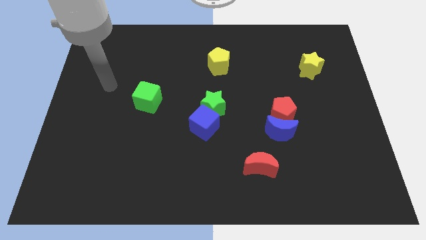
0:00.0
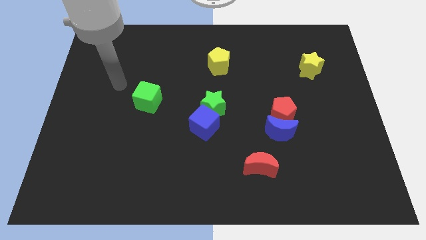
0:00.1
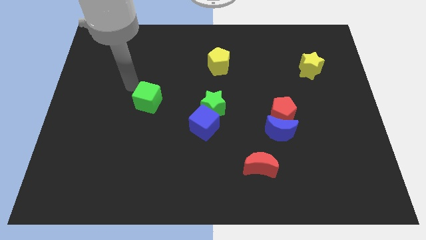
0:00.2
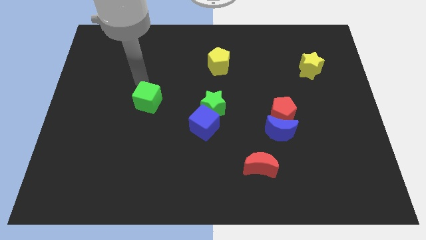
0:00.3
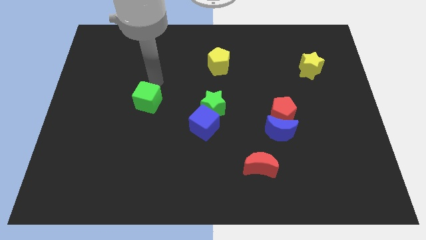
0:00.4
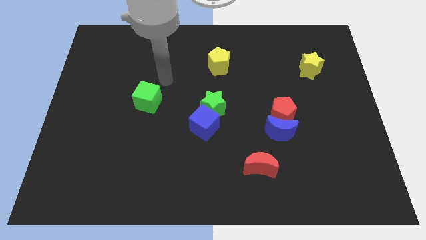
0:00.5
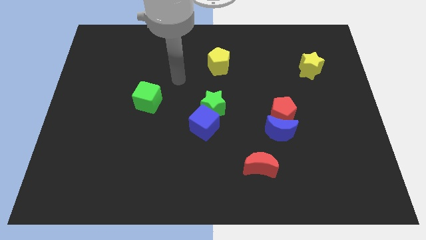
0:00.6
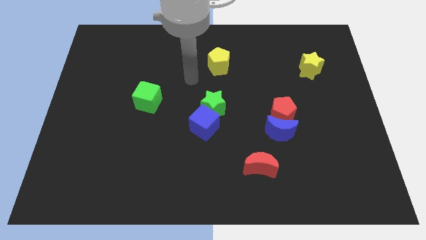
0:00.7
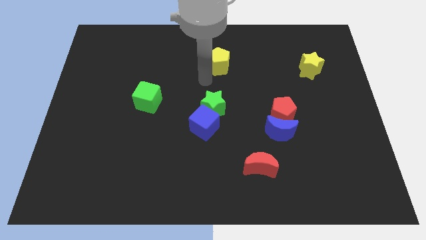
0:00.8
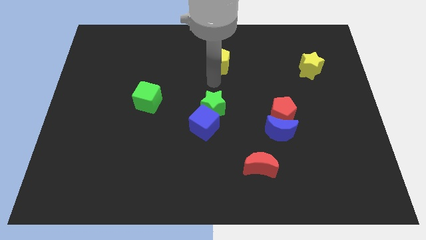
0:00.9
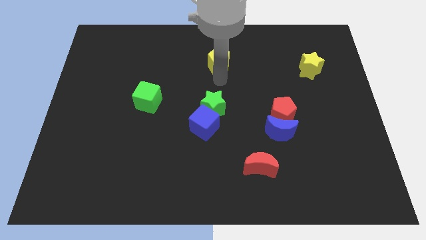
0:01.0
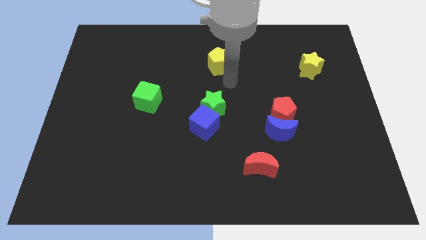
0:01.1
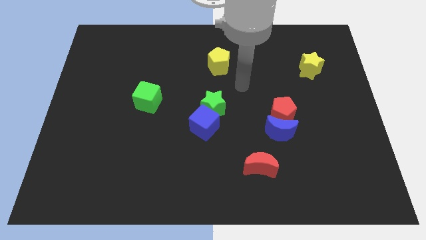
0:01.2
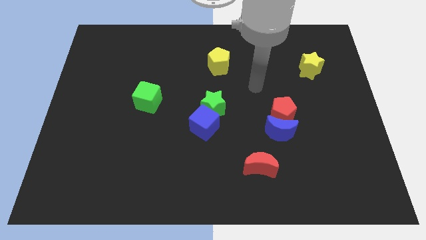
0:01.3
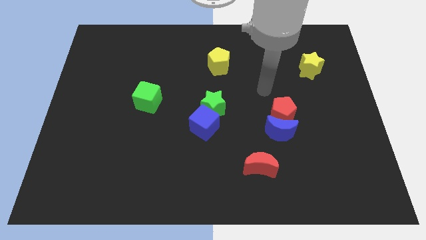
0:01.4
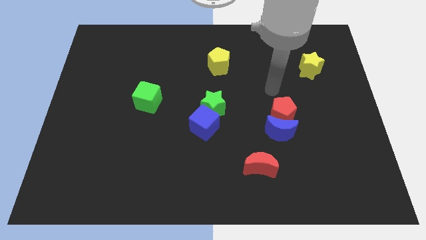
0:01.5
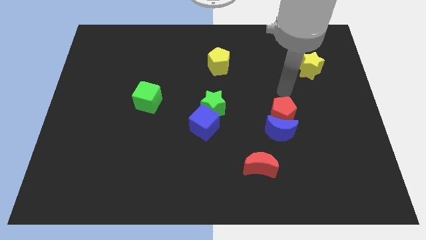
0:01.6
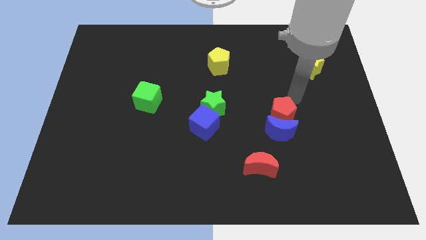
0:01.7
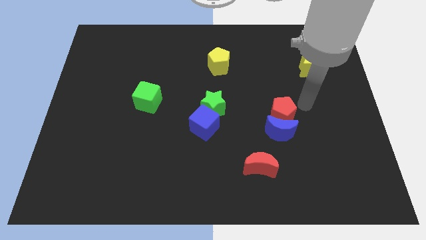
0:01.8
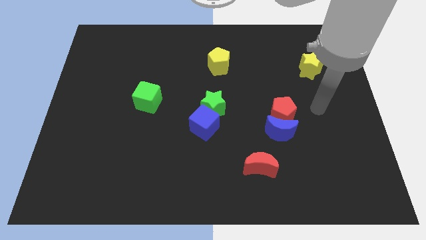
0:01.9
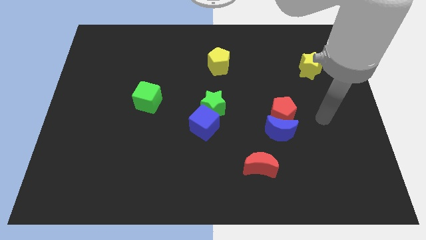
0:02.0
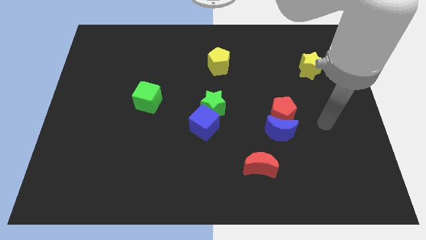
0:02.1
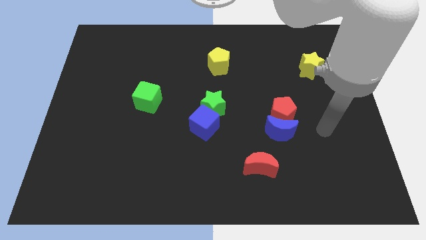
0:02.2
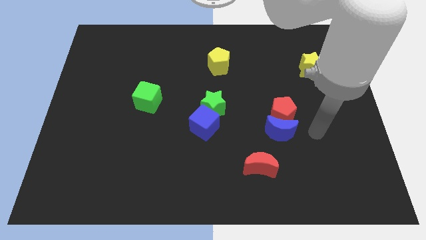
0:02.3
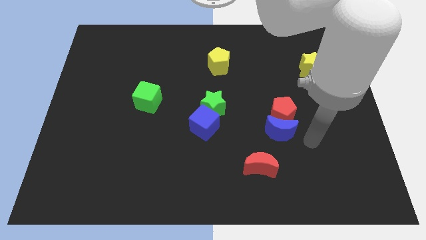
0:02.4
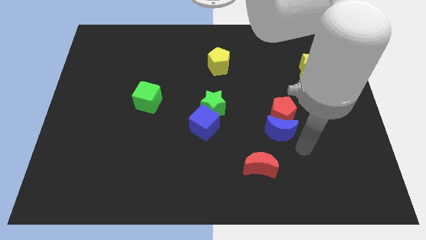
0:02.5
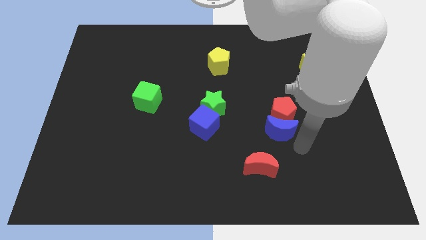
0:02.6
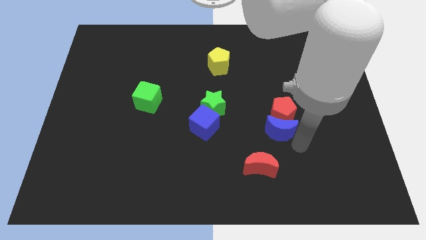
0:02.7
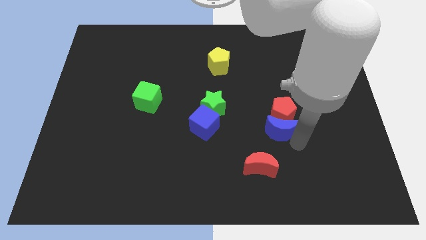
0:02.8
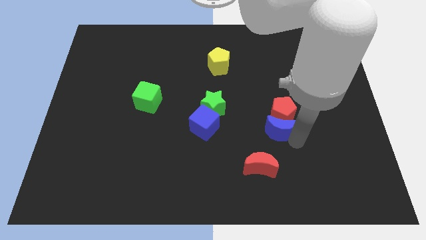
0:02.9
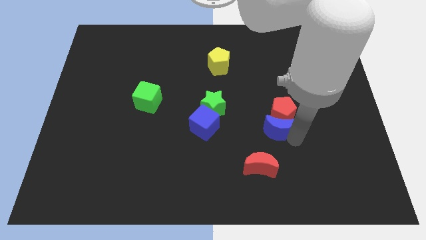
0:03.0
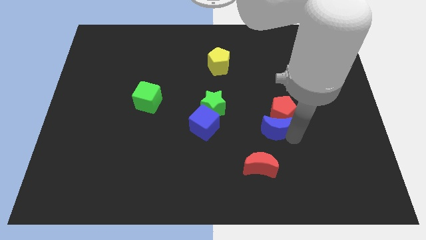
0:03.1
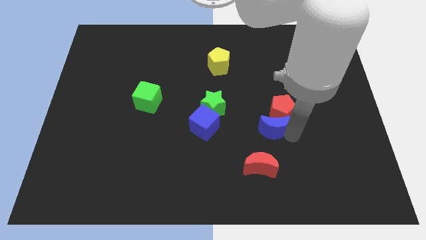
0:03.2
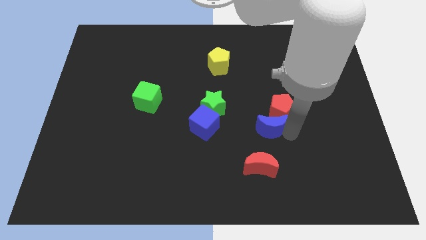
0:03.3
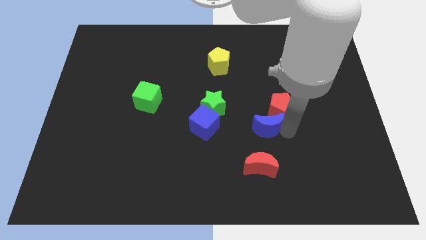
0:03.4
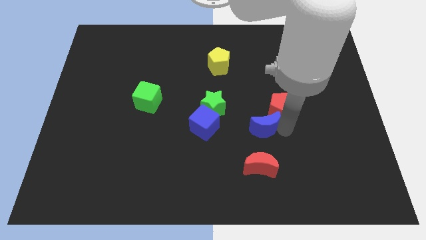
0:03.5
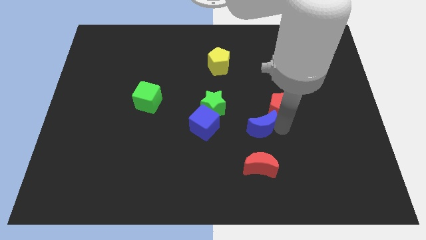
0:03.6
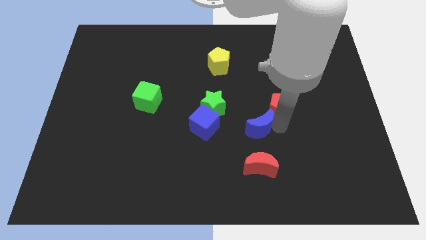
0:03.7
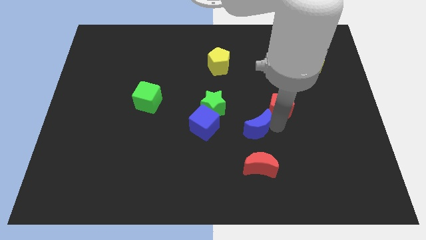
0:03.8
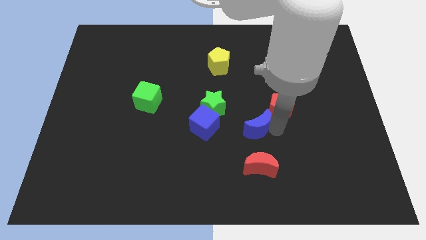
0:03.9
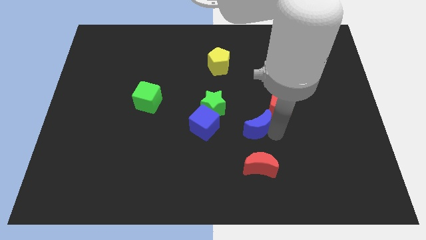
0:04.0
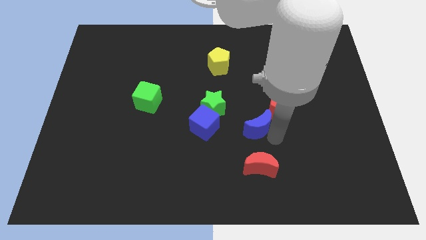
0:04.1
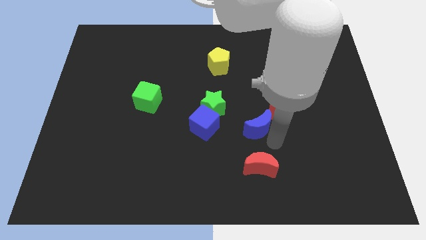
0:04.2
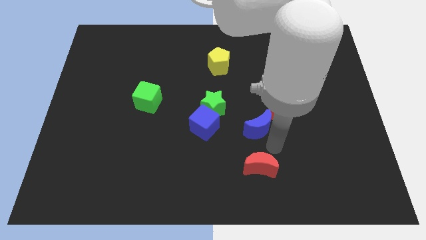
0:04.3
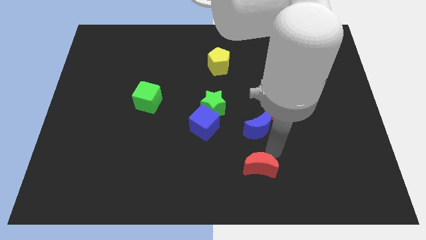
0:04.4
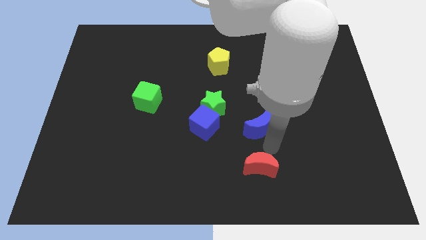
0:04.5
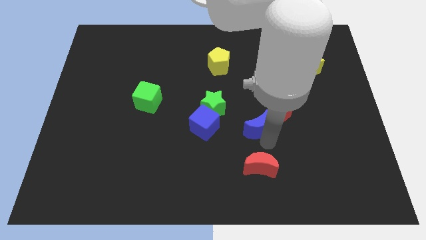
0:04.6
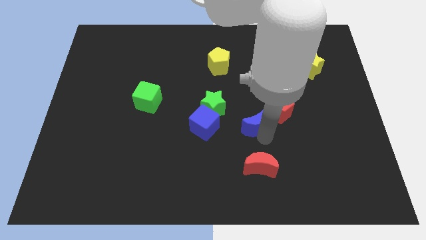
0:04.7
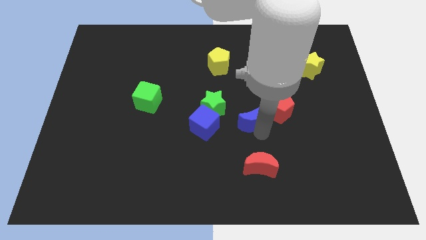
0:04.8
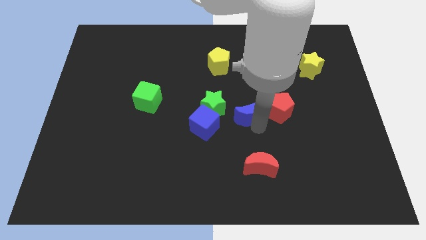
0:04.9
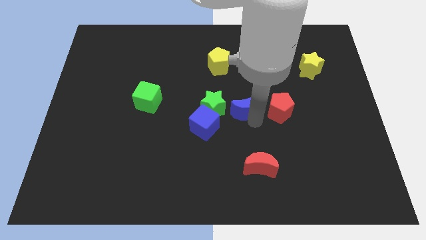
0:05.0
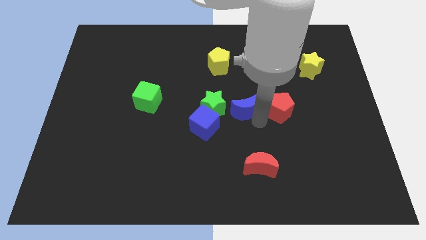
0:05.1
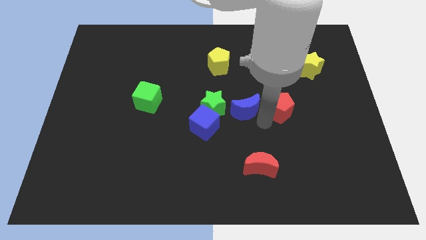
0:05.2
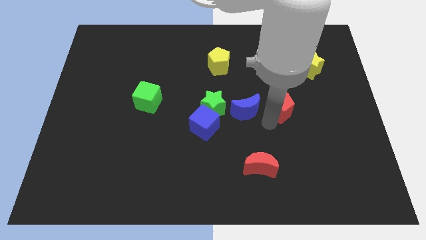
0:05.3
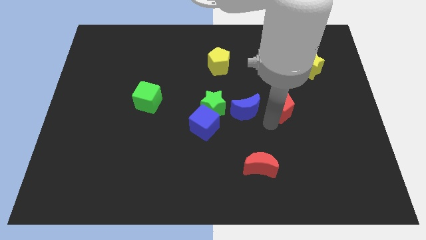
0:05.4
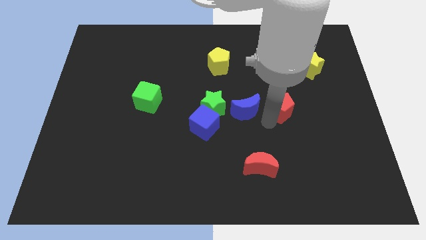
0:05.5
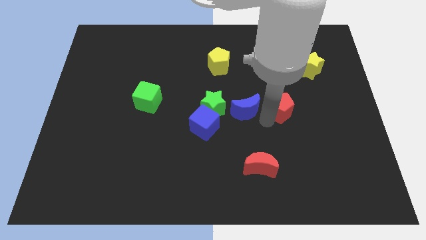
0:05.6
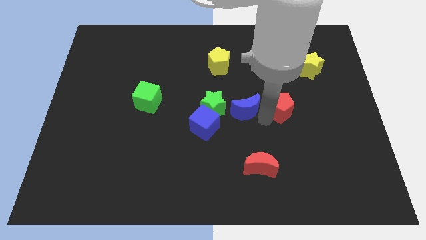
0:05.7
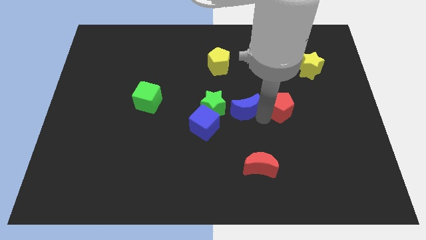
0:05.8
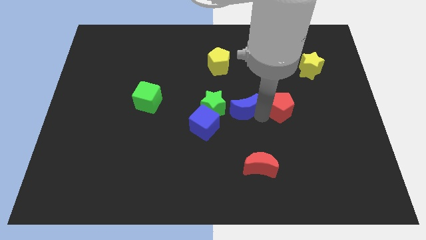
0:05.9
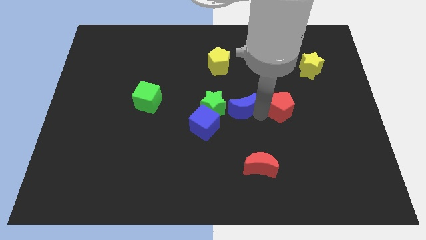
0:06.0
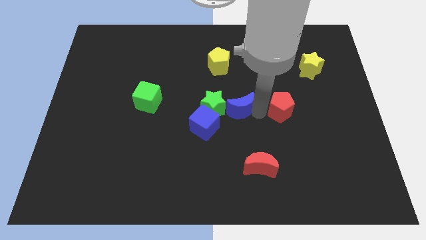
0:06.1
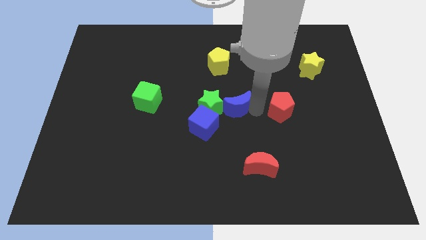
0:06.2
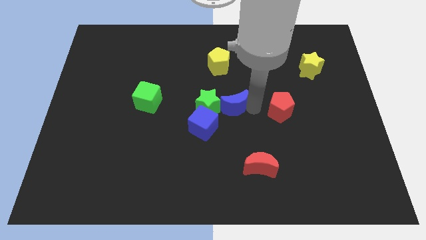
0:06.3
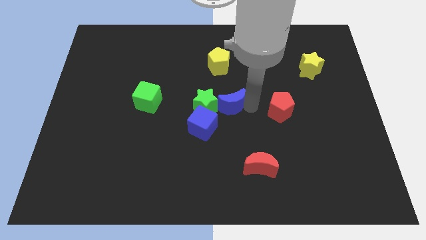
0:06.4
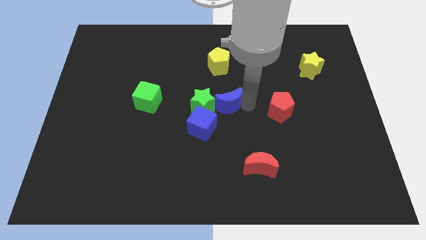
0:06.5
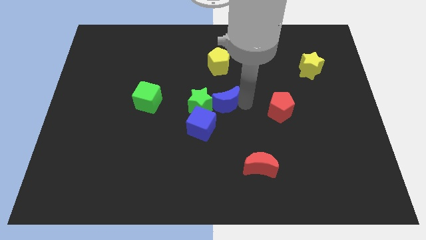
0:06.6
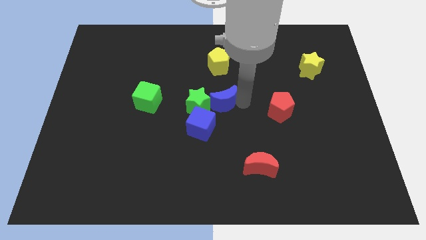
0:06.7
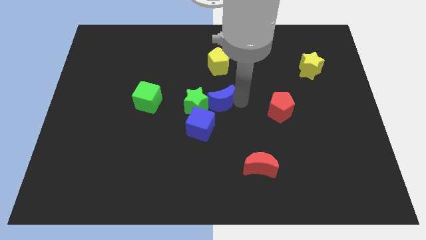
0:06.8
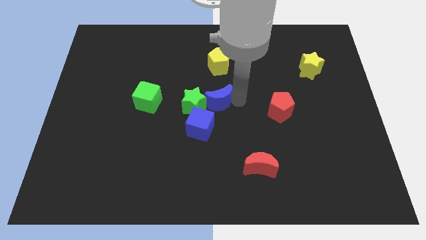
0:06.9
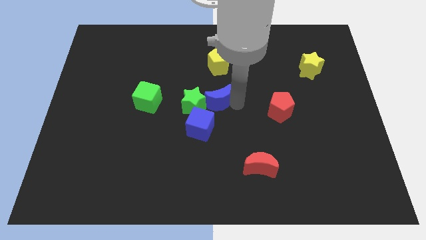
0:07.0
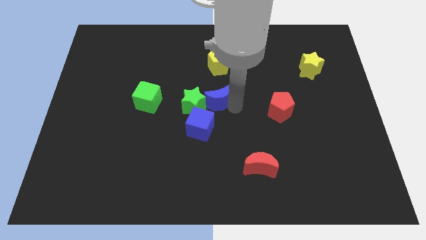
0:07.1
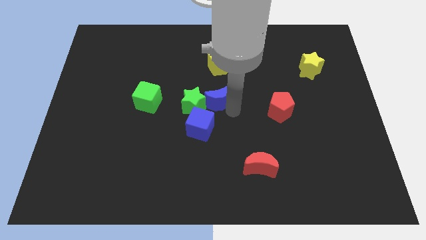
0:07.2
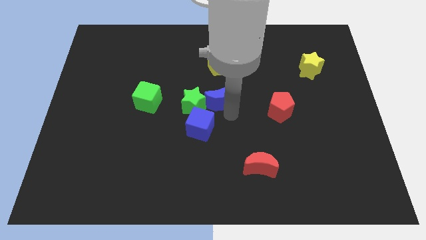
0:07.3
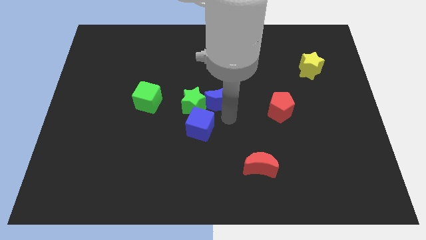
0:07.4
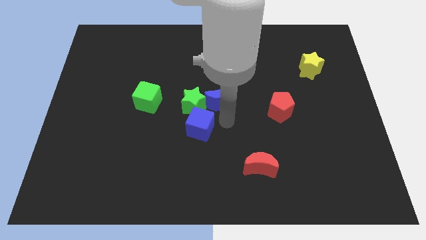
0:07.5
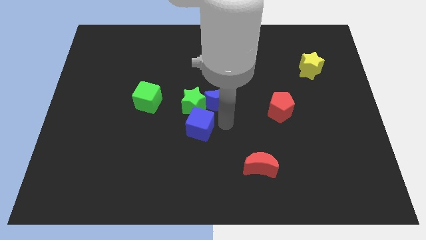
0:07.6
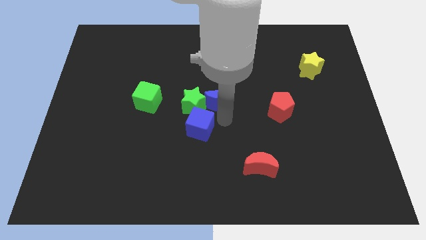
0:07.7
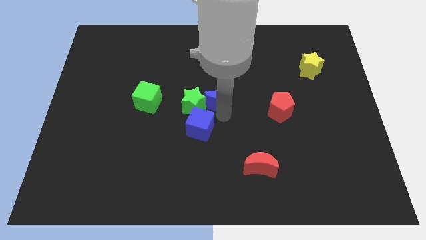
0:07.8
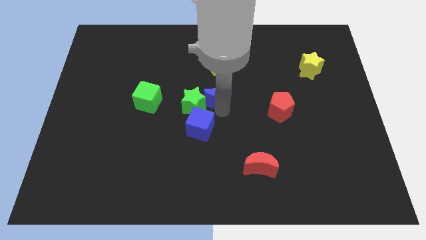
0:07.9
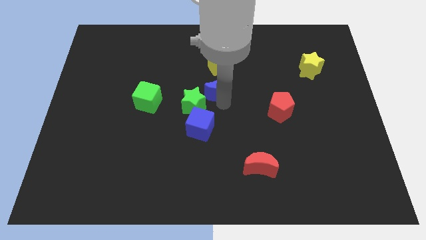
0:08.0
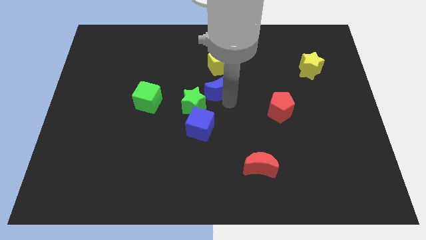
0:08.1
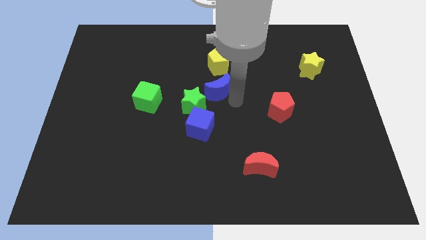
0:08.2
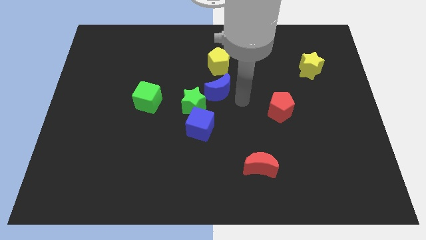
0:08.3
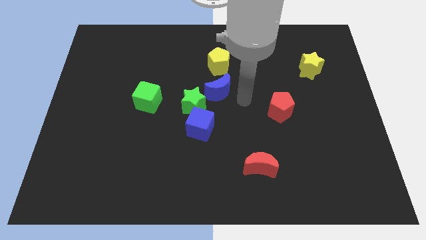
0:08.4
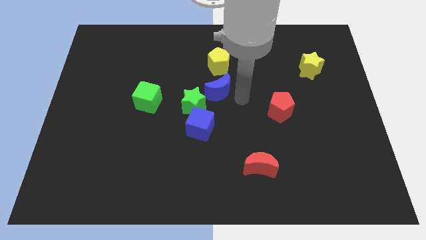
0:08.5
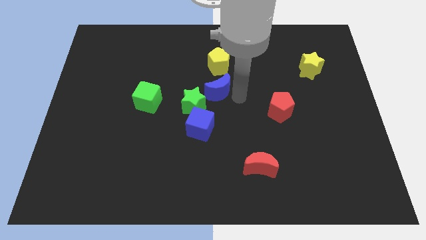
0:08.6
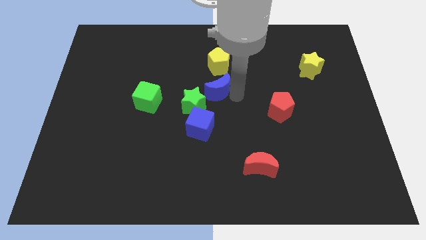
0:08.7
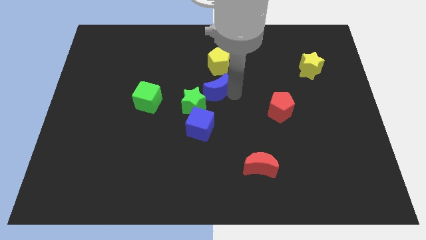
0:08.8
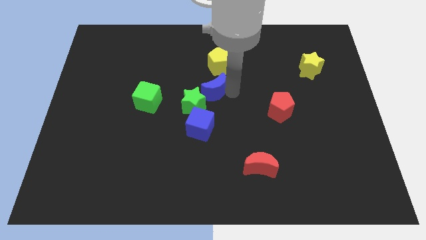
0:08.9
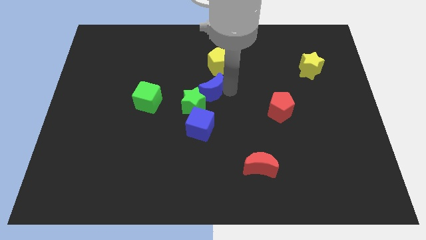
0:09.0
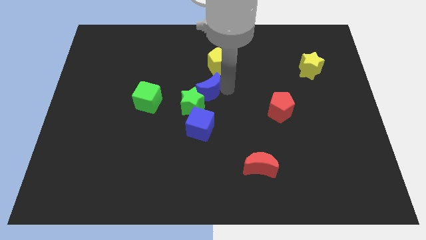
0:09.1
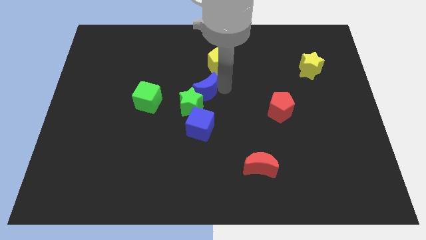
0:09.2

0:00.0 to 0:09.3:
push the blue moon up and to the left diagonally
